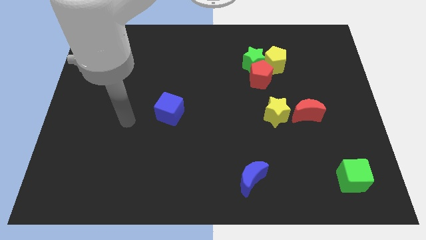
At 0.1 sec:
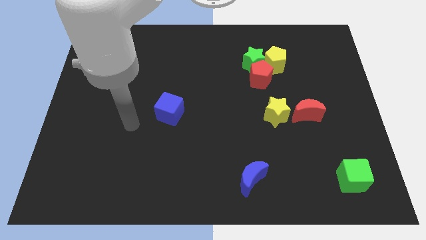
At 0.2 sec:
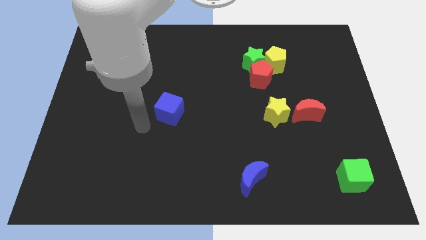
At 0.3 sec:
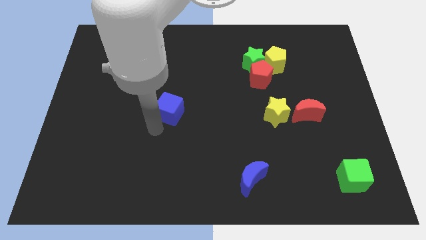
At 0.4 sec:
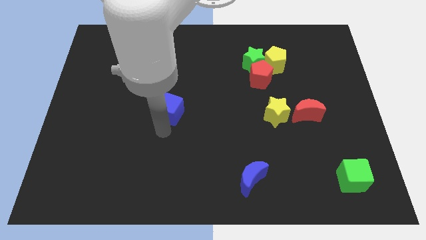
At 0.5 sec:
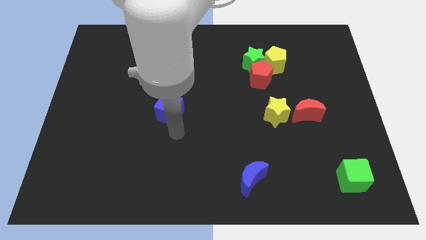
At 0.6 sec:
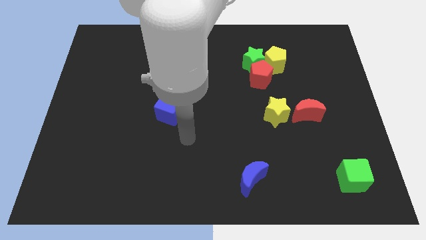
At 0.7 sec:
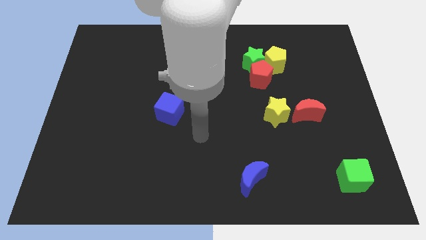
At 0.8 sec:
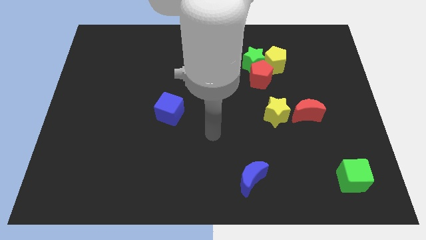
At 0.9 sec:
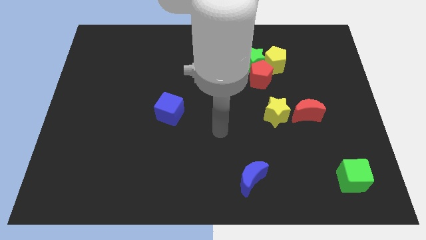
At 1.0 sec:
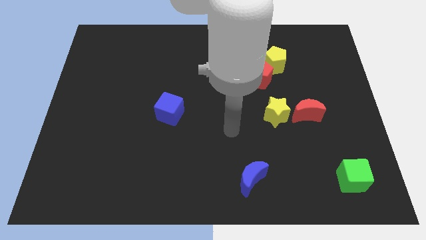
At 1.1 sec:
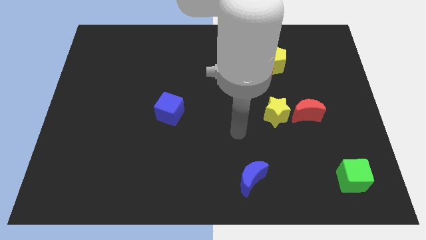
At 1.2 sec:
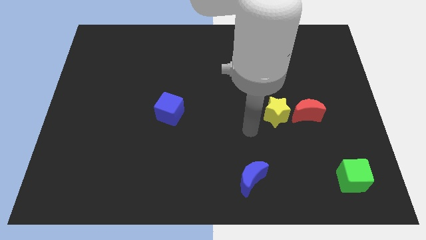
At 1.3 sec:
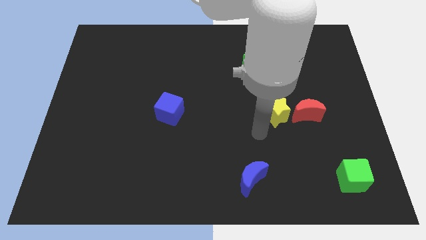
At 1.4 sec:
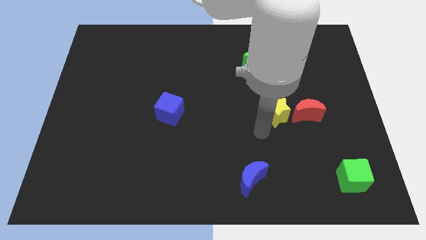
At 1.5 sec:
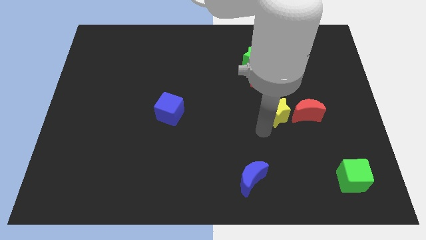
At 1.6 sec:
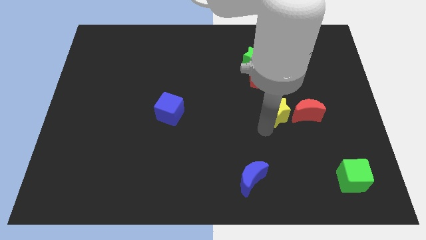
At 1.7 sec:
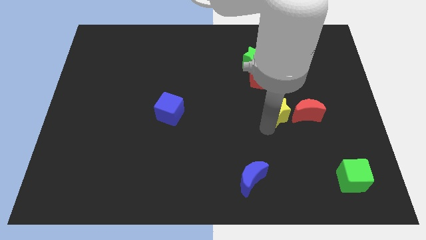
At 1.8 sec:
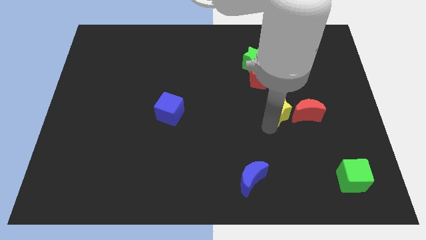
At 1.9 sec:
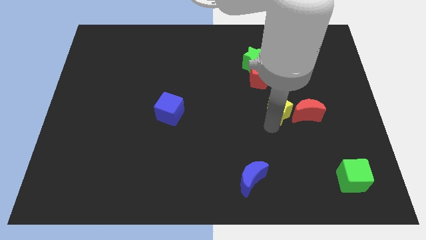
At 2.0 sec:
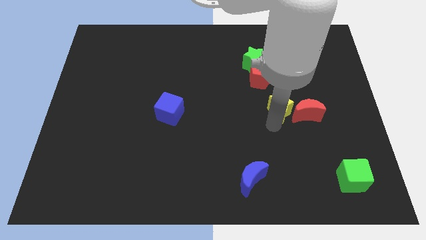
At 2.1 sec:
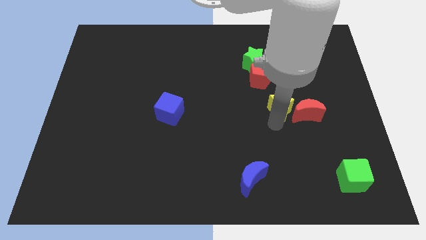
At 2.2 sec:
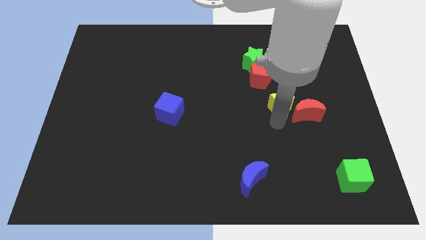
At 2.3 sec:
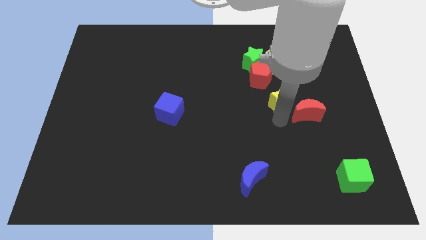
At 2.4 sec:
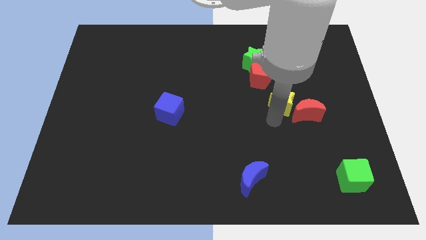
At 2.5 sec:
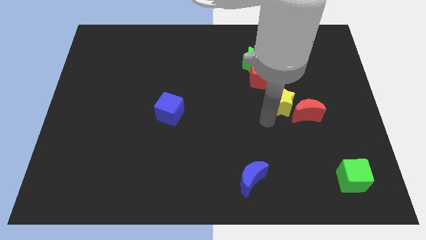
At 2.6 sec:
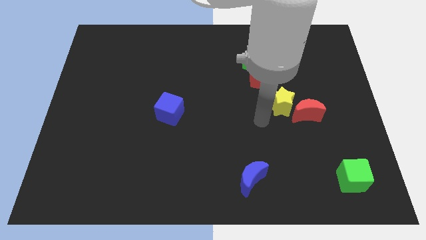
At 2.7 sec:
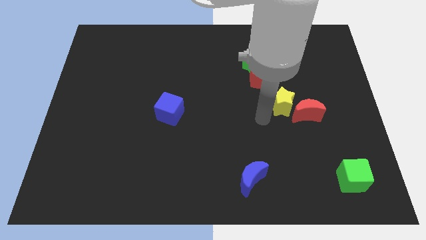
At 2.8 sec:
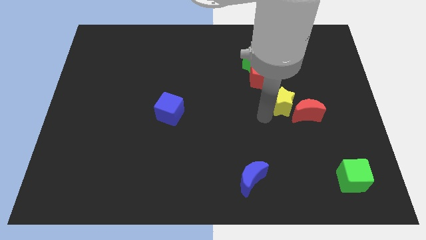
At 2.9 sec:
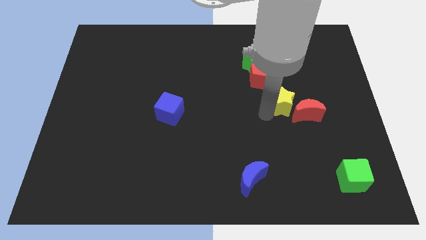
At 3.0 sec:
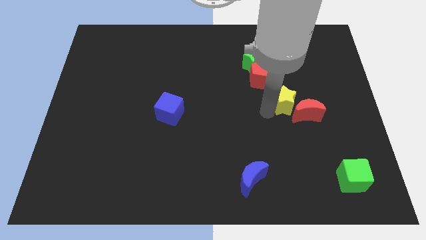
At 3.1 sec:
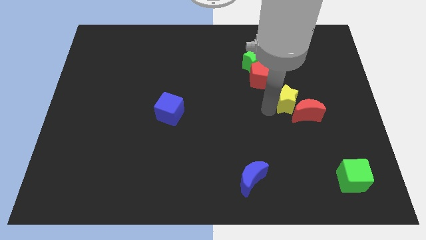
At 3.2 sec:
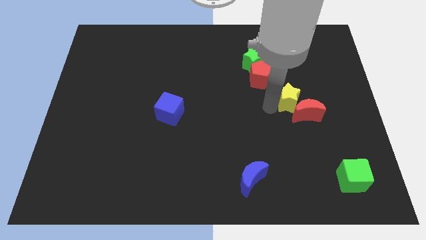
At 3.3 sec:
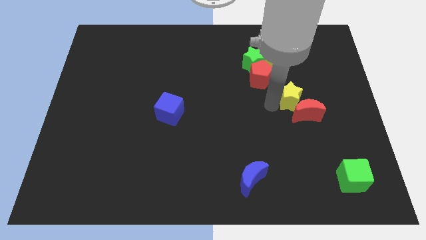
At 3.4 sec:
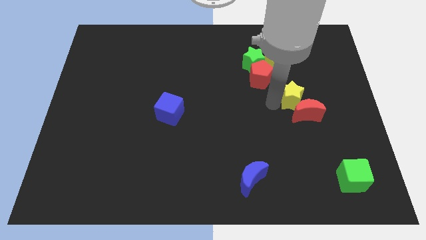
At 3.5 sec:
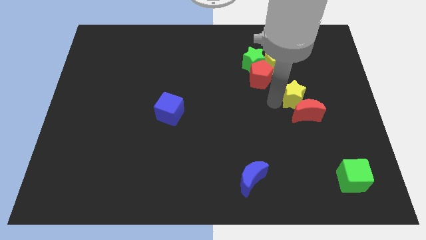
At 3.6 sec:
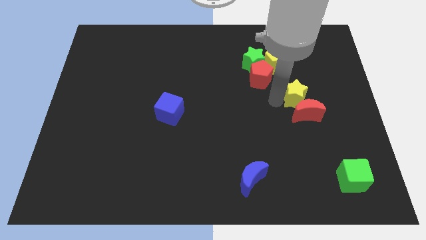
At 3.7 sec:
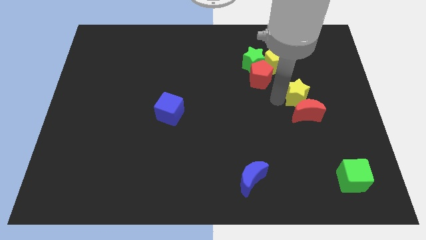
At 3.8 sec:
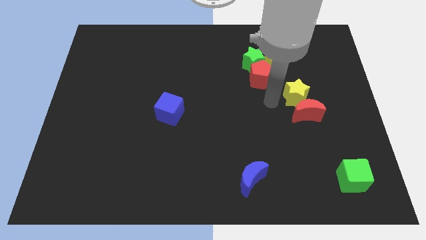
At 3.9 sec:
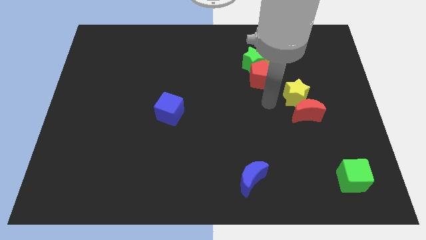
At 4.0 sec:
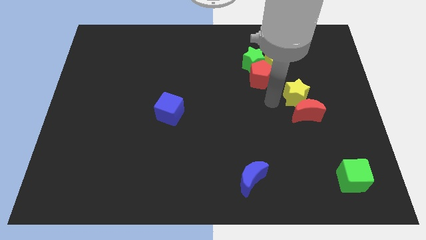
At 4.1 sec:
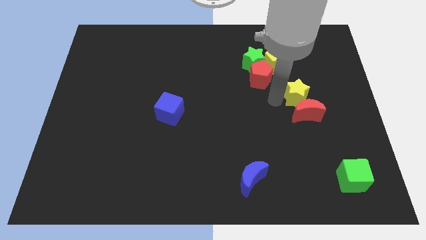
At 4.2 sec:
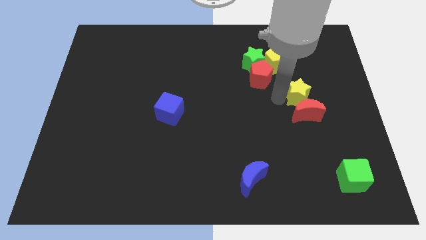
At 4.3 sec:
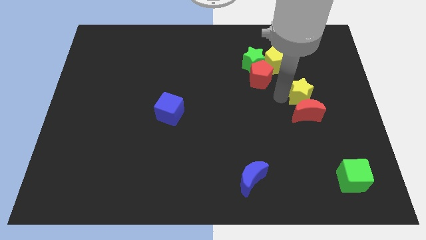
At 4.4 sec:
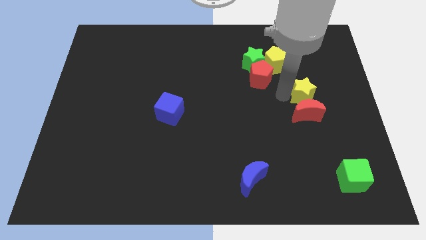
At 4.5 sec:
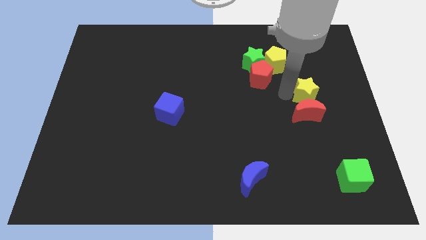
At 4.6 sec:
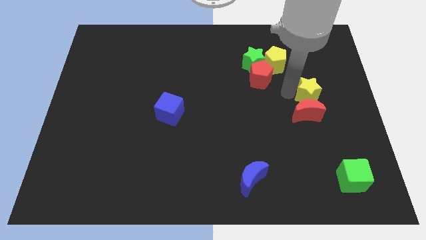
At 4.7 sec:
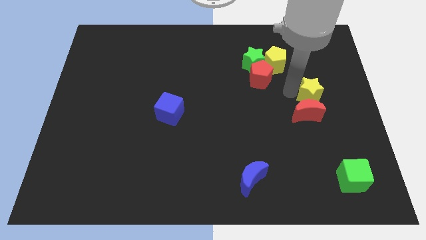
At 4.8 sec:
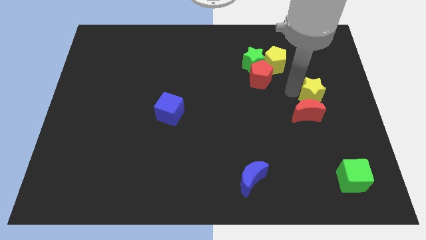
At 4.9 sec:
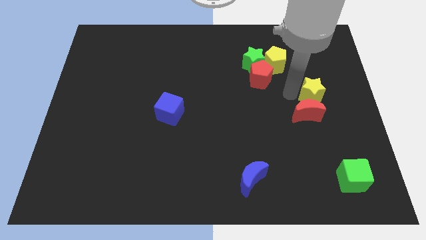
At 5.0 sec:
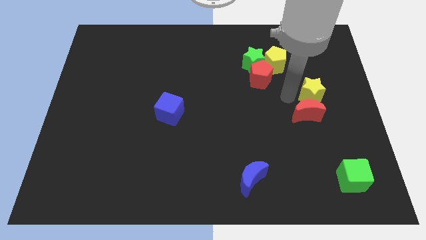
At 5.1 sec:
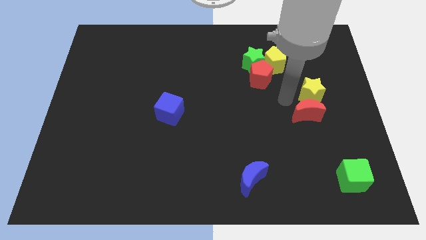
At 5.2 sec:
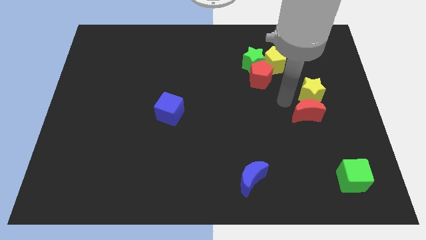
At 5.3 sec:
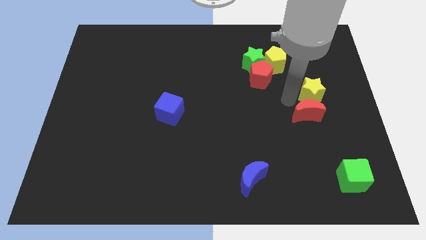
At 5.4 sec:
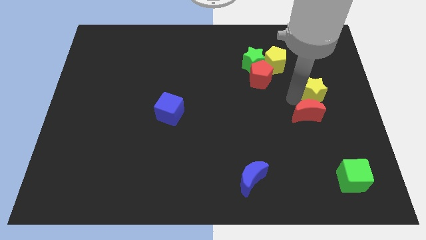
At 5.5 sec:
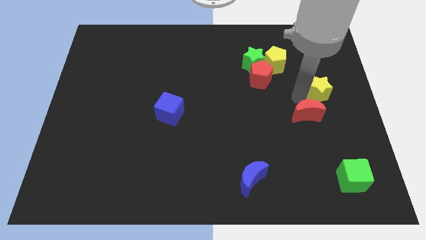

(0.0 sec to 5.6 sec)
slide the yellow star to the center right
